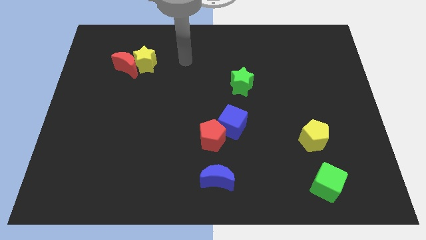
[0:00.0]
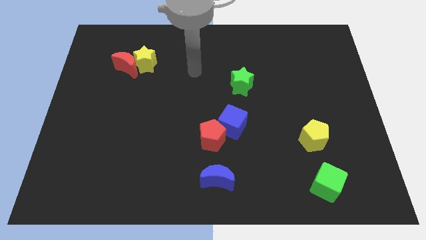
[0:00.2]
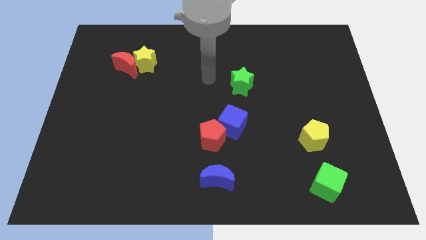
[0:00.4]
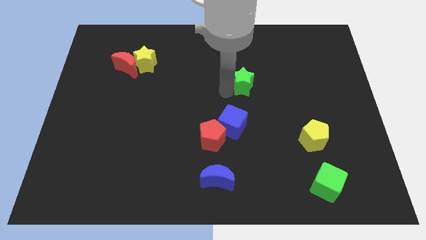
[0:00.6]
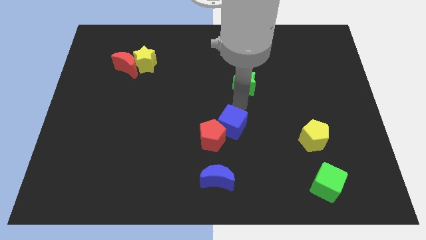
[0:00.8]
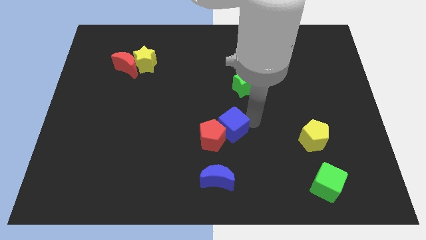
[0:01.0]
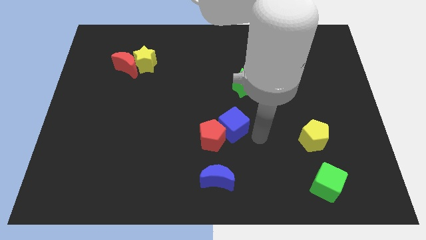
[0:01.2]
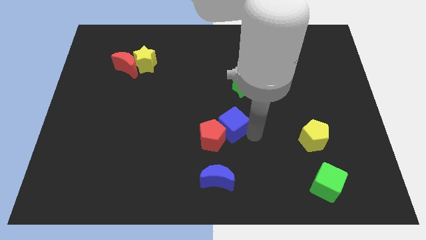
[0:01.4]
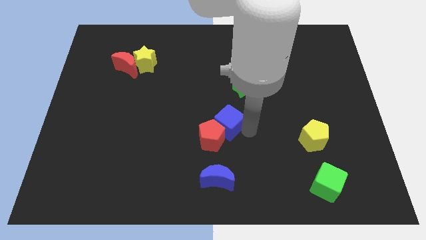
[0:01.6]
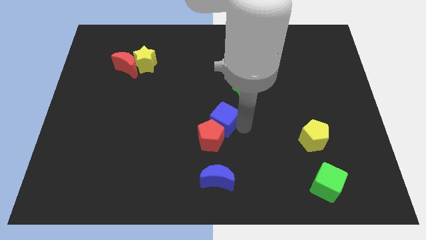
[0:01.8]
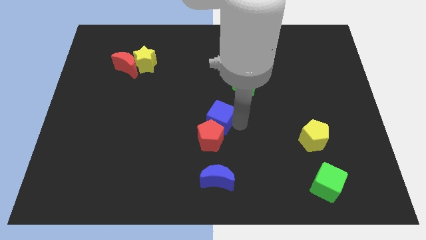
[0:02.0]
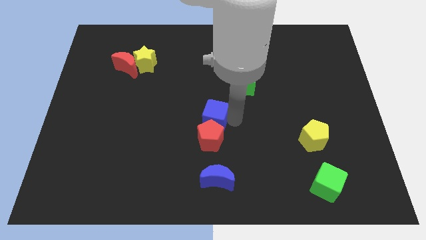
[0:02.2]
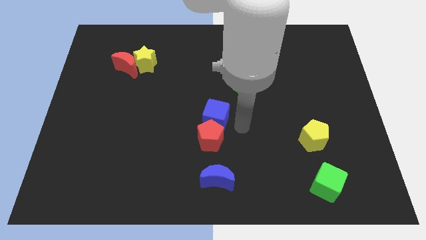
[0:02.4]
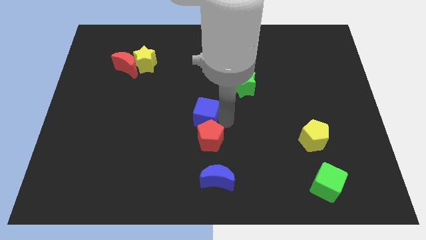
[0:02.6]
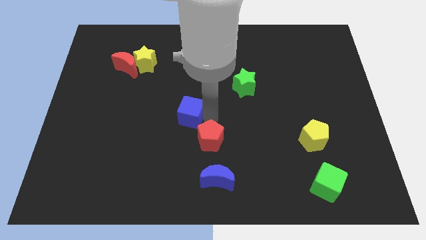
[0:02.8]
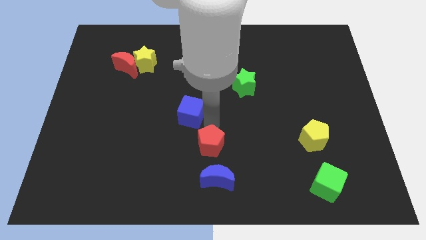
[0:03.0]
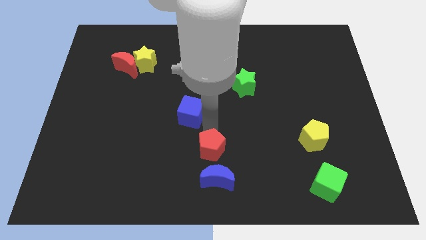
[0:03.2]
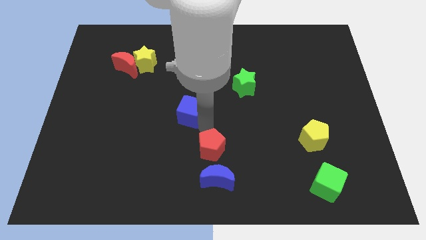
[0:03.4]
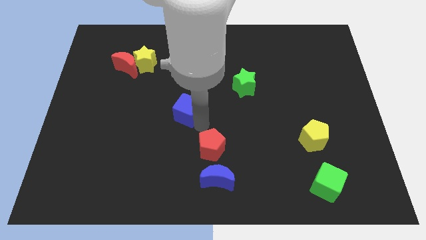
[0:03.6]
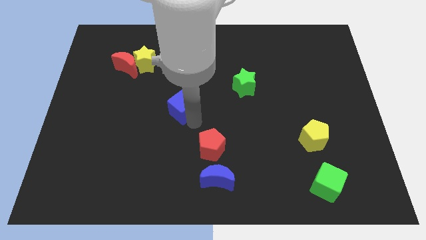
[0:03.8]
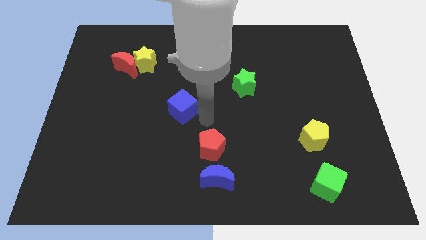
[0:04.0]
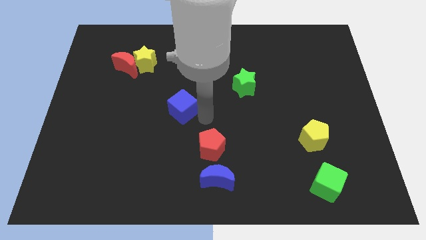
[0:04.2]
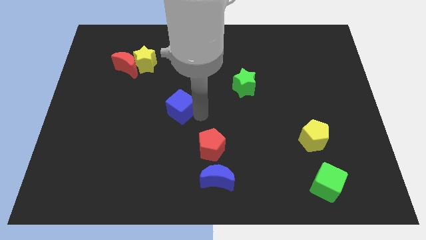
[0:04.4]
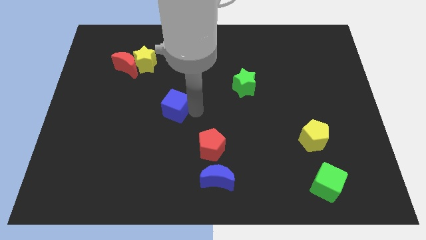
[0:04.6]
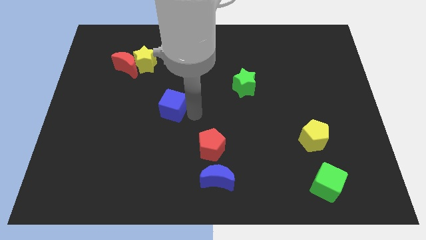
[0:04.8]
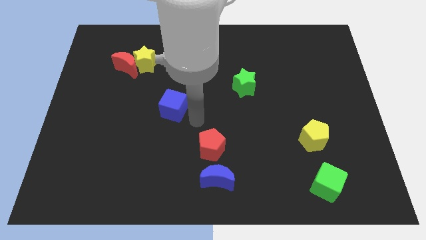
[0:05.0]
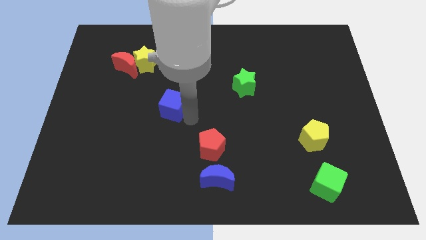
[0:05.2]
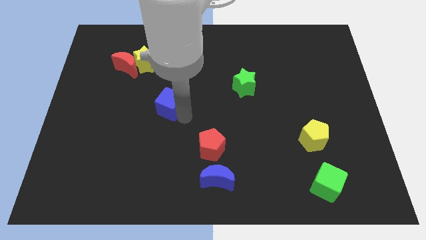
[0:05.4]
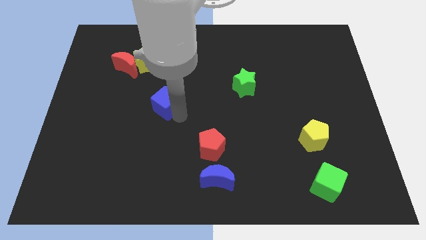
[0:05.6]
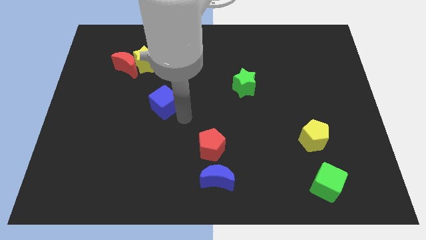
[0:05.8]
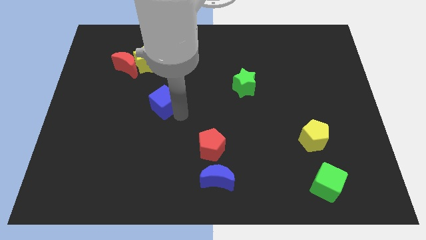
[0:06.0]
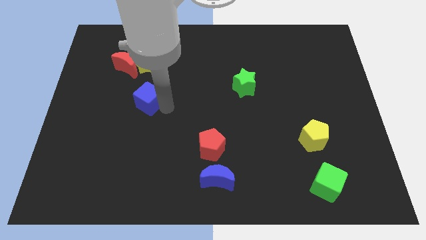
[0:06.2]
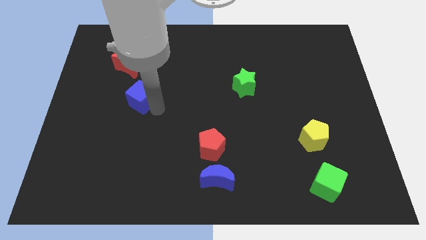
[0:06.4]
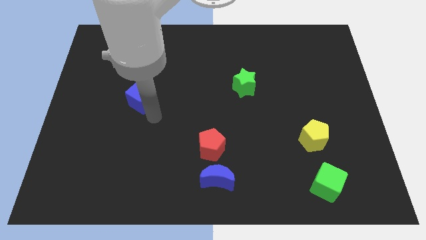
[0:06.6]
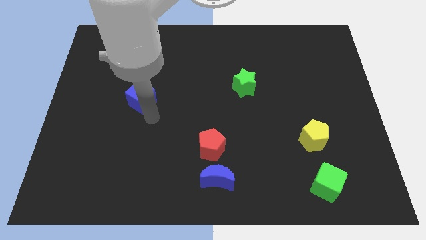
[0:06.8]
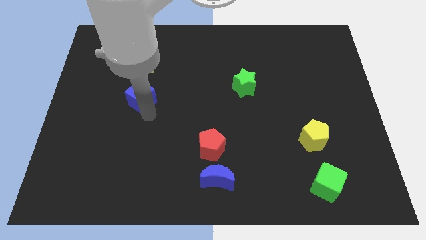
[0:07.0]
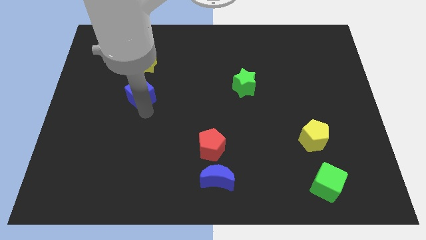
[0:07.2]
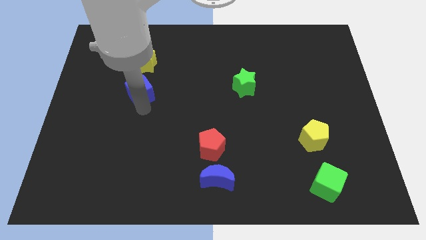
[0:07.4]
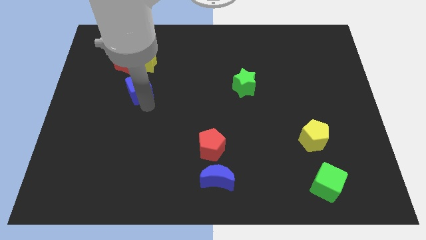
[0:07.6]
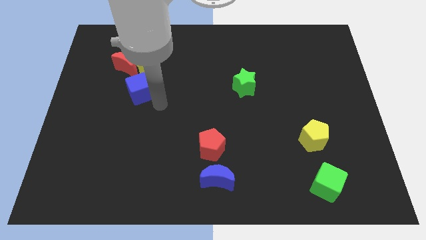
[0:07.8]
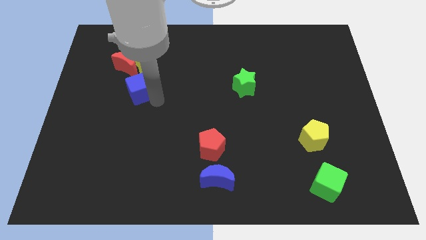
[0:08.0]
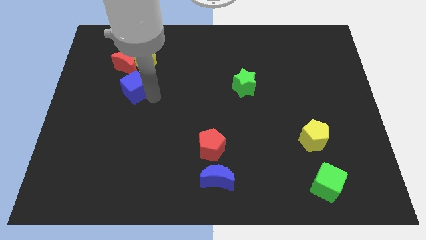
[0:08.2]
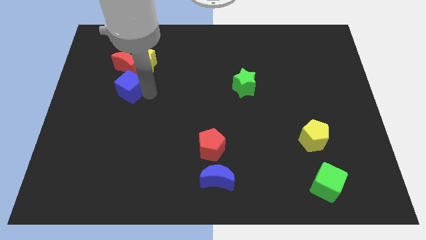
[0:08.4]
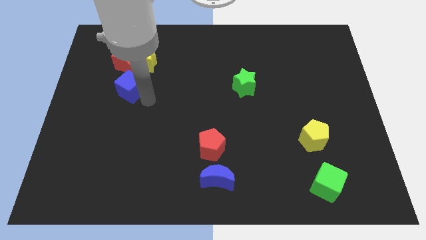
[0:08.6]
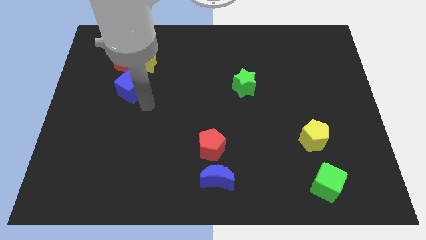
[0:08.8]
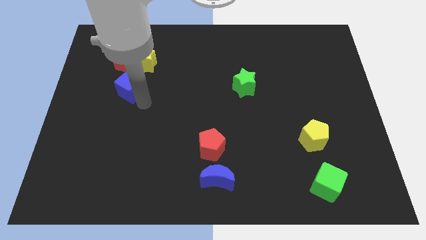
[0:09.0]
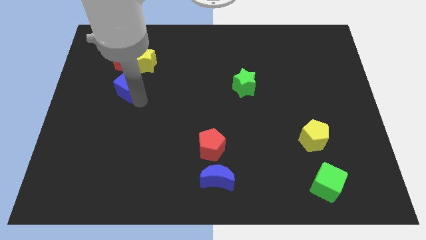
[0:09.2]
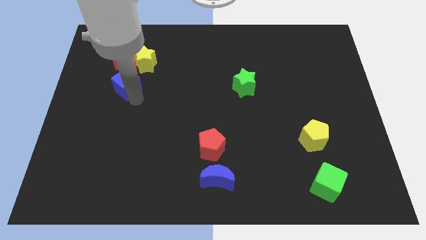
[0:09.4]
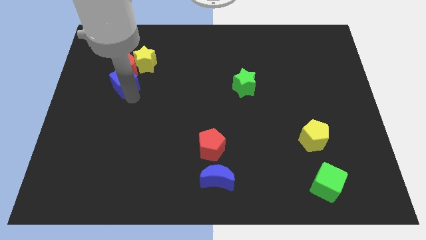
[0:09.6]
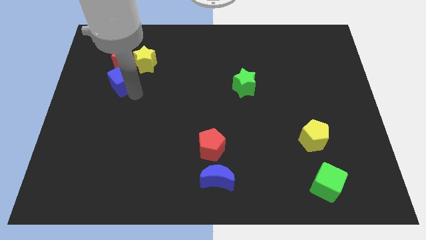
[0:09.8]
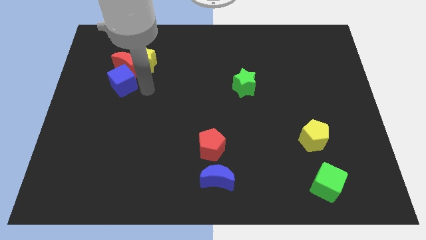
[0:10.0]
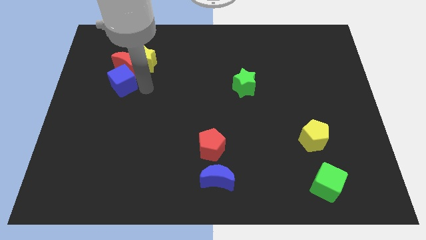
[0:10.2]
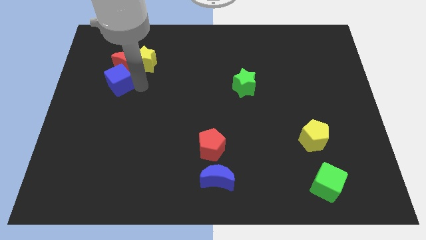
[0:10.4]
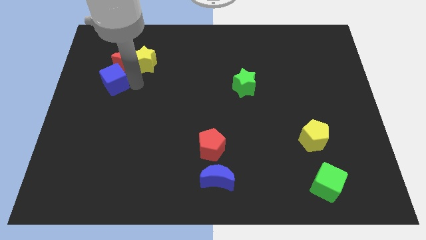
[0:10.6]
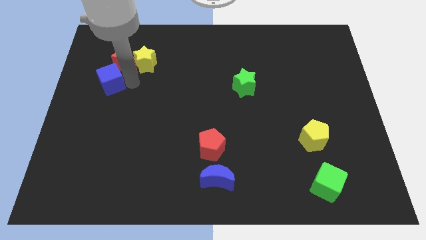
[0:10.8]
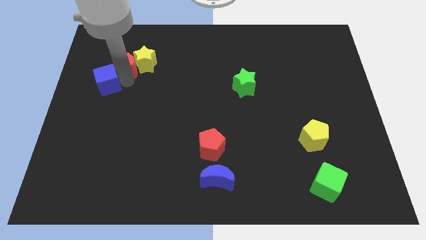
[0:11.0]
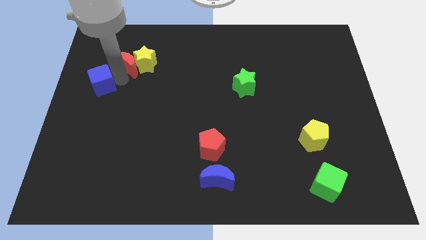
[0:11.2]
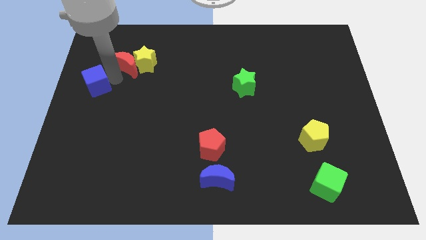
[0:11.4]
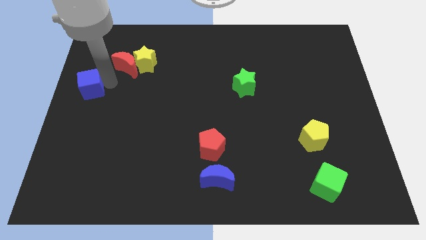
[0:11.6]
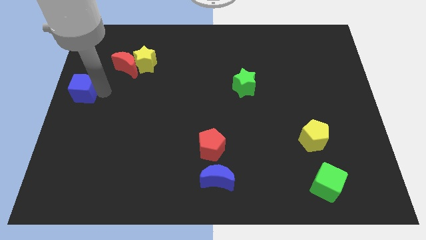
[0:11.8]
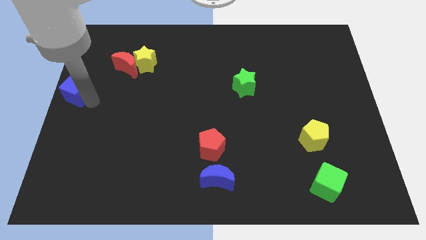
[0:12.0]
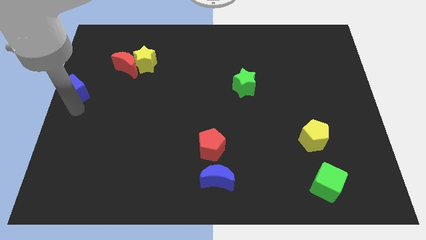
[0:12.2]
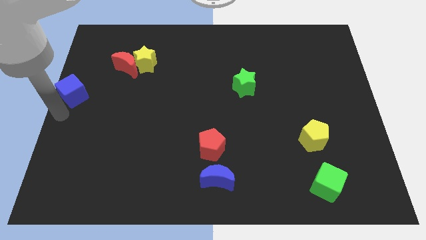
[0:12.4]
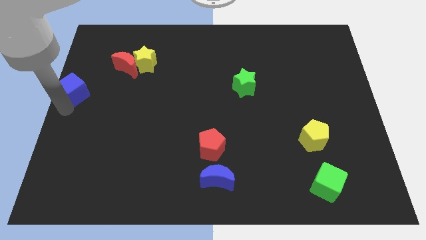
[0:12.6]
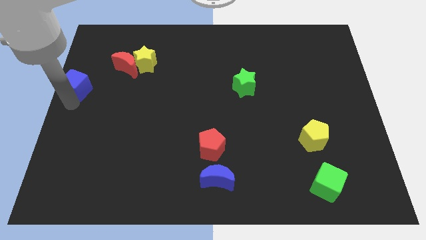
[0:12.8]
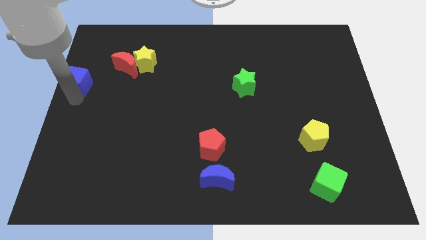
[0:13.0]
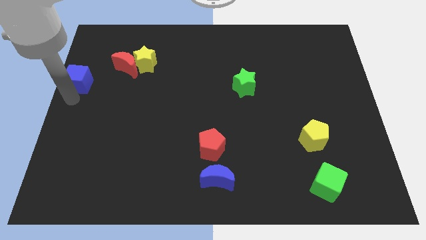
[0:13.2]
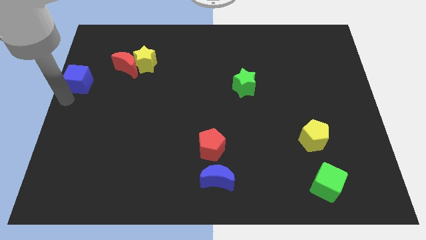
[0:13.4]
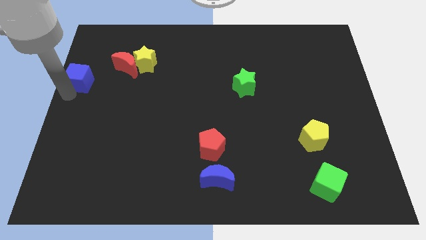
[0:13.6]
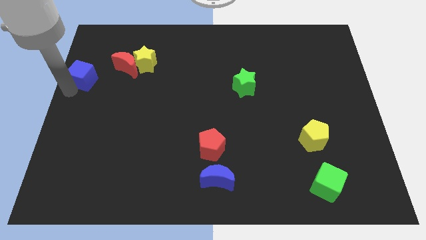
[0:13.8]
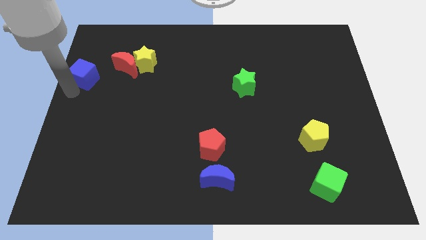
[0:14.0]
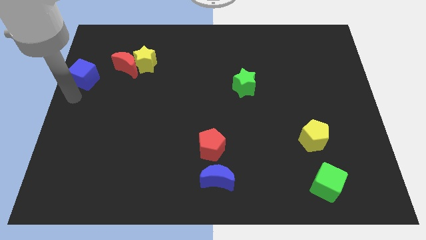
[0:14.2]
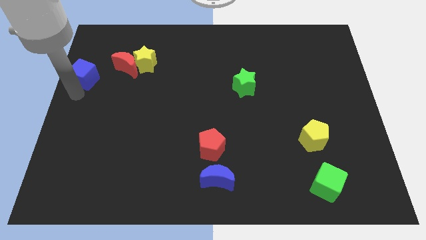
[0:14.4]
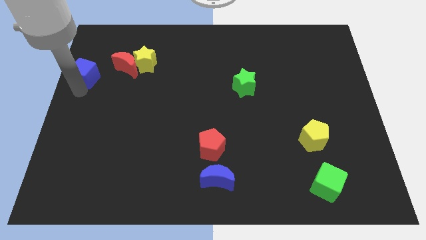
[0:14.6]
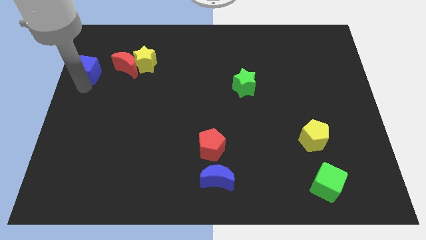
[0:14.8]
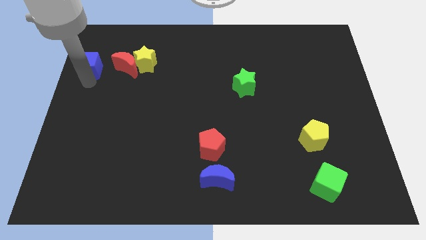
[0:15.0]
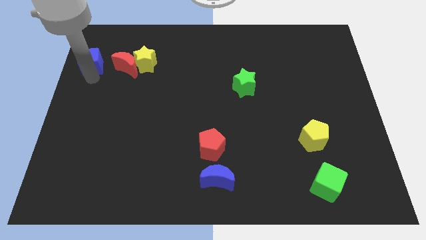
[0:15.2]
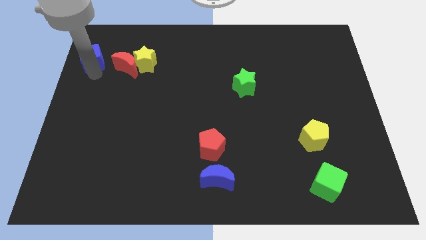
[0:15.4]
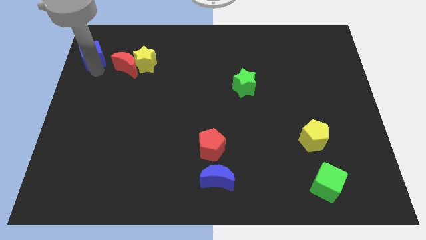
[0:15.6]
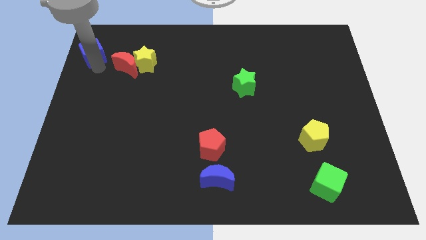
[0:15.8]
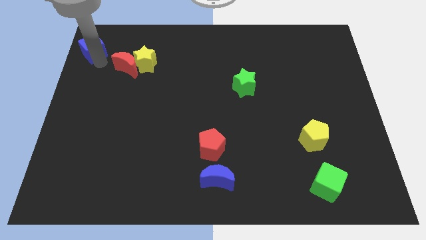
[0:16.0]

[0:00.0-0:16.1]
put the blue cube to the top left
